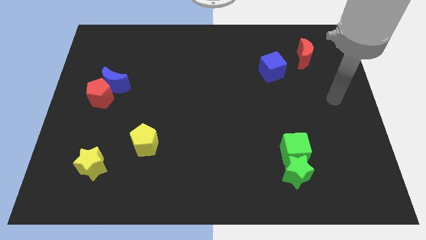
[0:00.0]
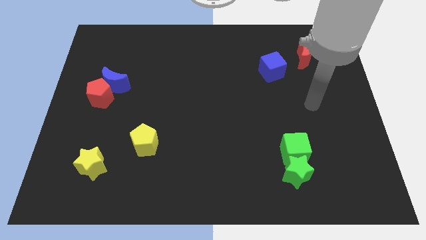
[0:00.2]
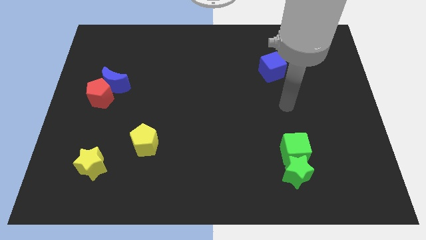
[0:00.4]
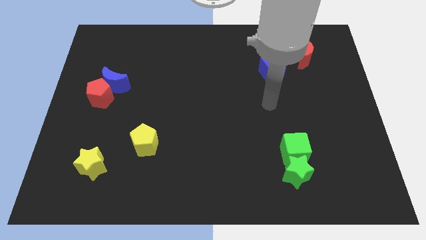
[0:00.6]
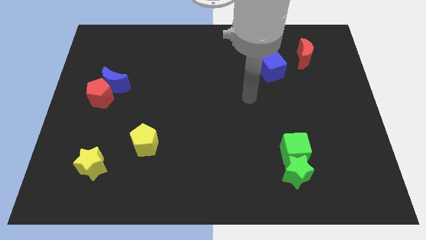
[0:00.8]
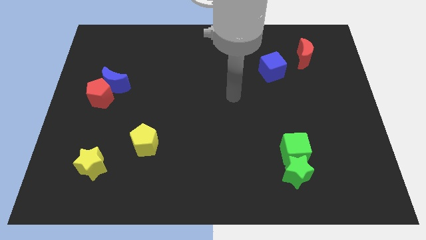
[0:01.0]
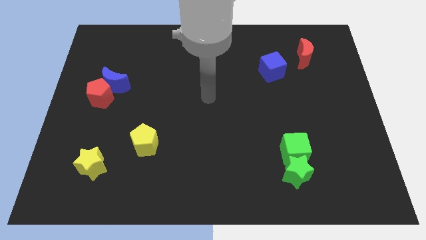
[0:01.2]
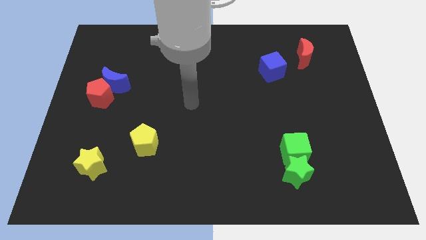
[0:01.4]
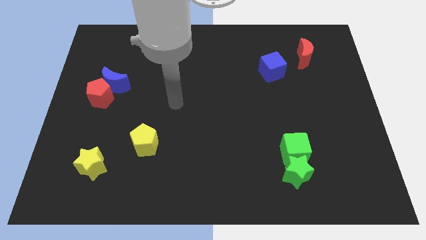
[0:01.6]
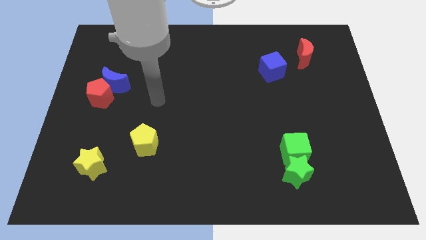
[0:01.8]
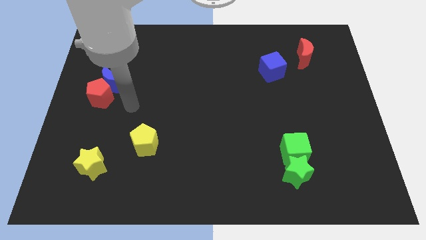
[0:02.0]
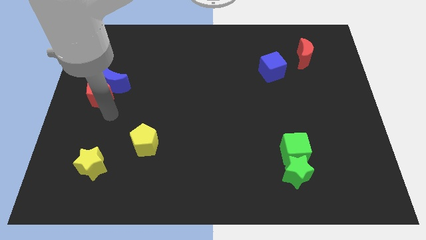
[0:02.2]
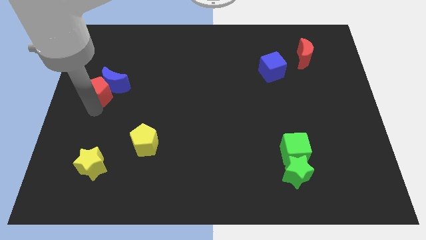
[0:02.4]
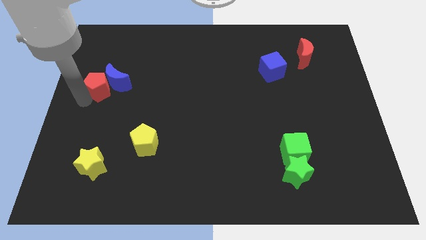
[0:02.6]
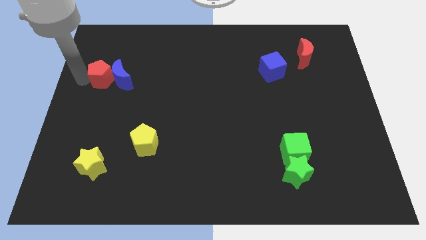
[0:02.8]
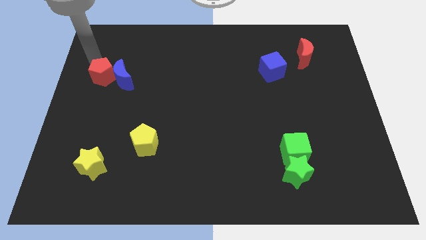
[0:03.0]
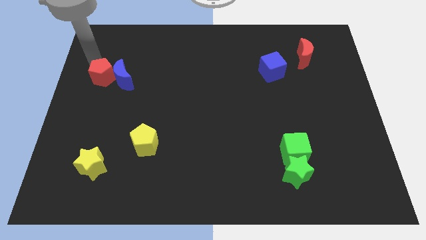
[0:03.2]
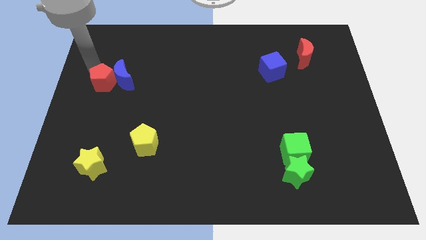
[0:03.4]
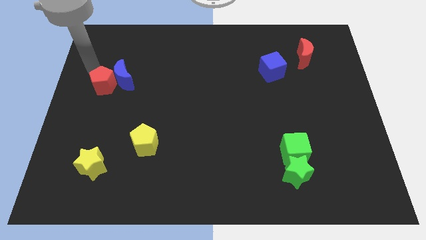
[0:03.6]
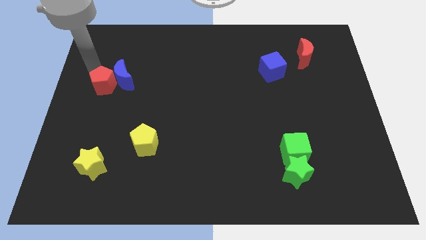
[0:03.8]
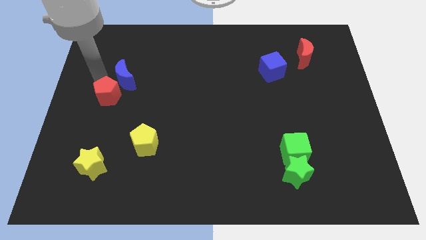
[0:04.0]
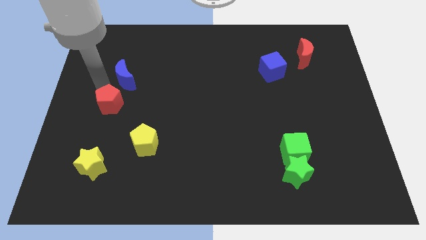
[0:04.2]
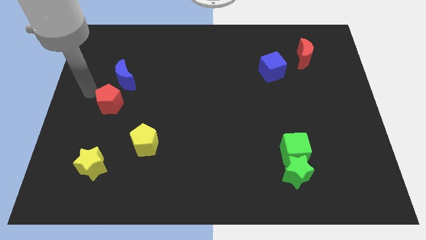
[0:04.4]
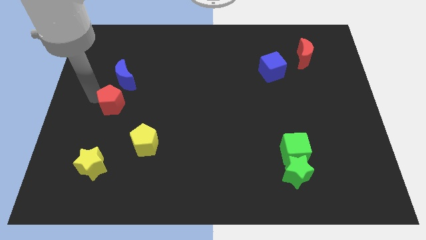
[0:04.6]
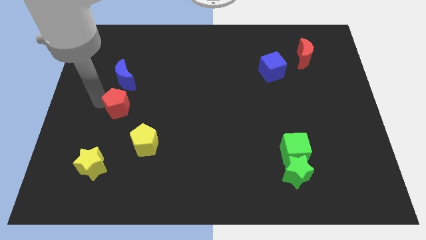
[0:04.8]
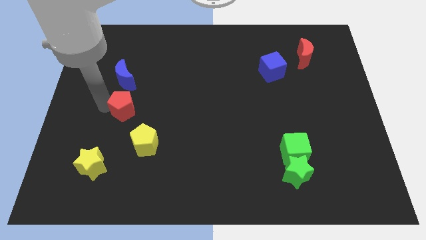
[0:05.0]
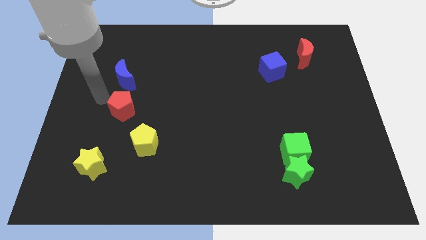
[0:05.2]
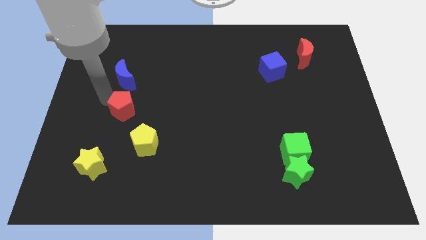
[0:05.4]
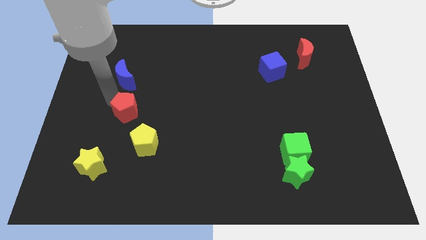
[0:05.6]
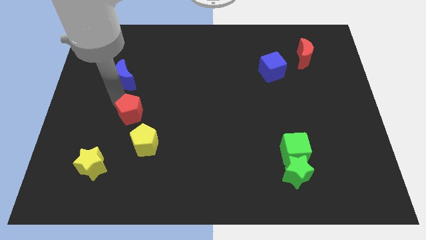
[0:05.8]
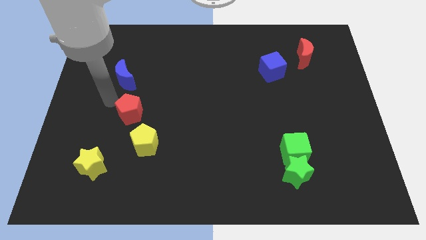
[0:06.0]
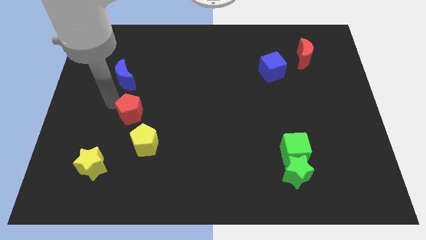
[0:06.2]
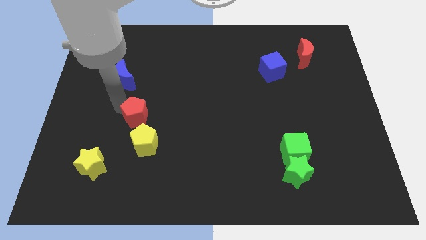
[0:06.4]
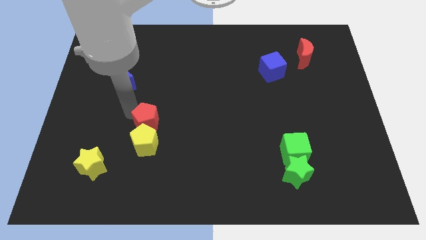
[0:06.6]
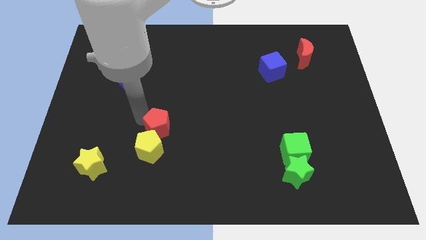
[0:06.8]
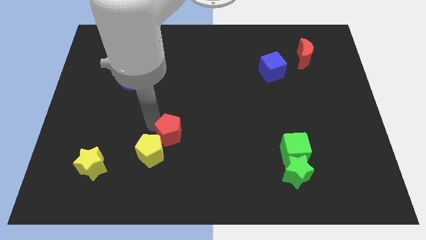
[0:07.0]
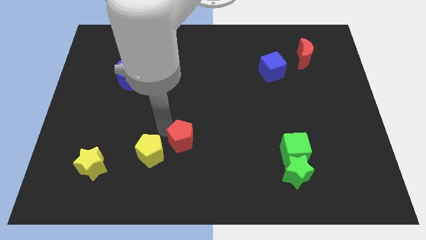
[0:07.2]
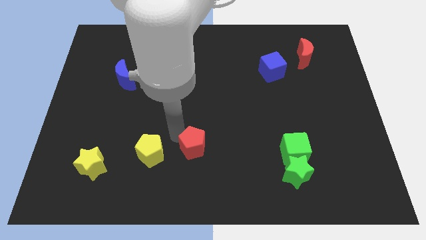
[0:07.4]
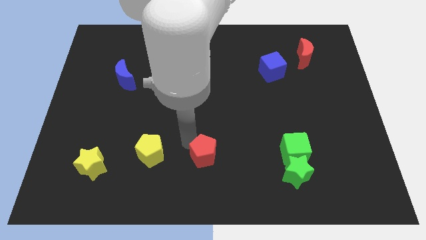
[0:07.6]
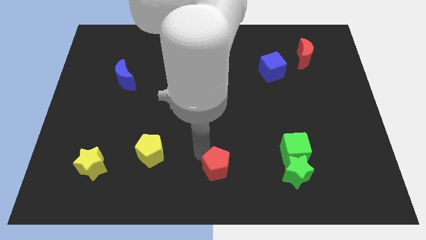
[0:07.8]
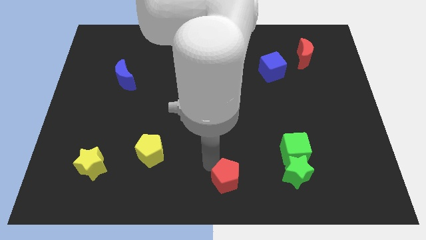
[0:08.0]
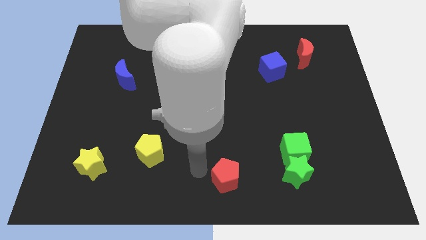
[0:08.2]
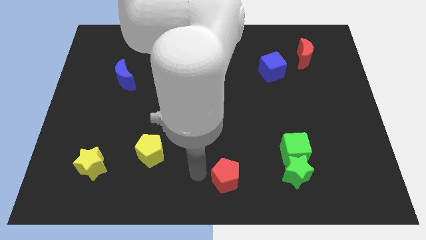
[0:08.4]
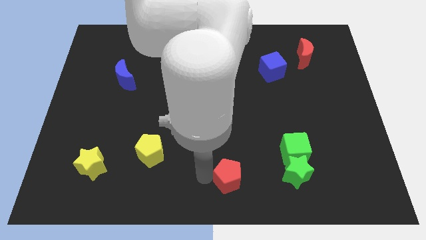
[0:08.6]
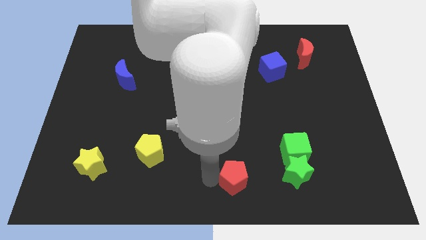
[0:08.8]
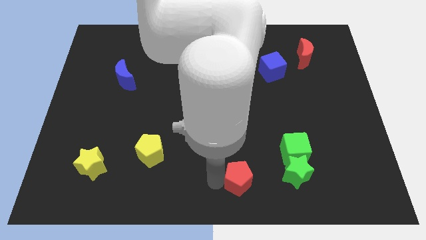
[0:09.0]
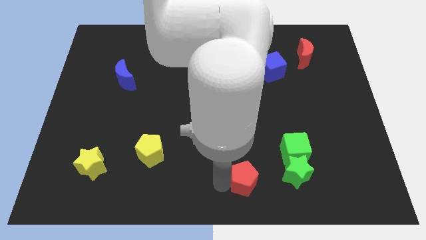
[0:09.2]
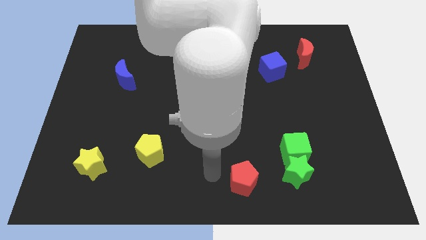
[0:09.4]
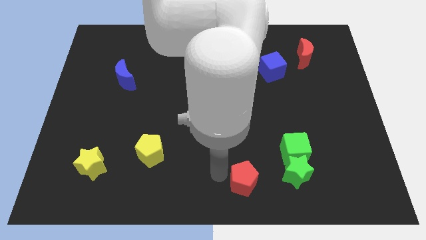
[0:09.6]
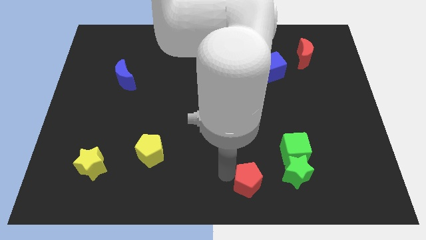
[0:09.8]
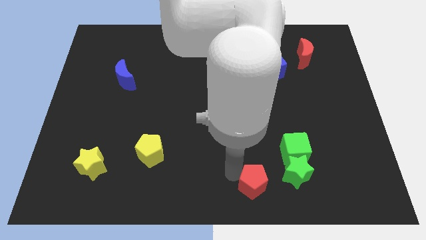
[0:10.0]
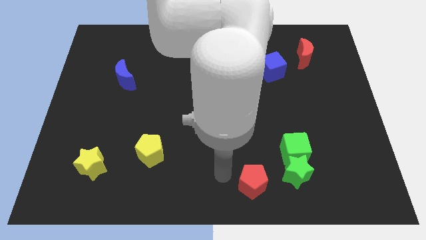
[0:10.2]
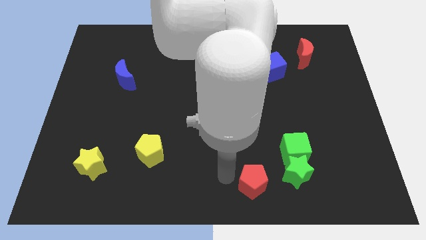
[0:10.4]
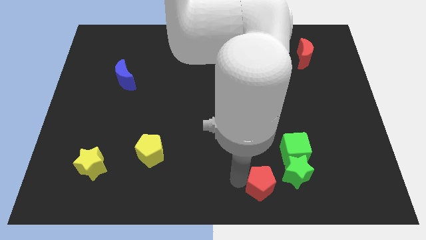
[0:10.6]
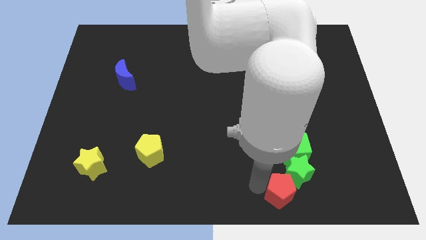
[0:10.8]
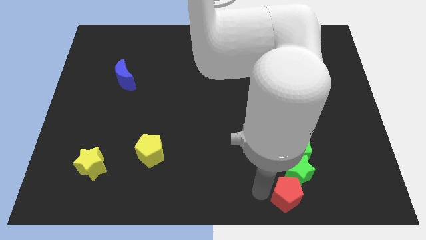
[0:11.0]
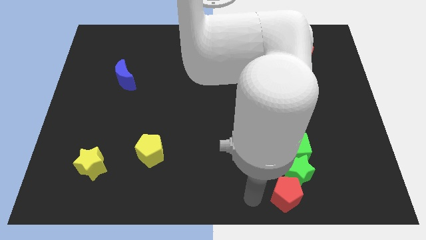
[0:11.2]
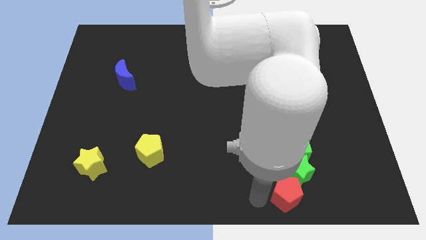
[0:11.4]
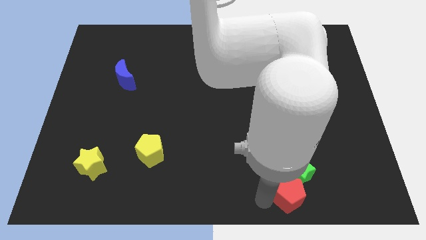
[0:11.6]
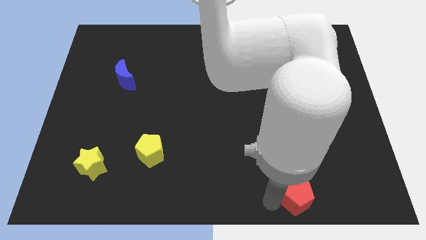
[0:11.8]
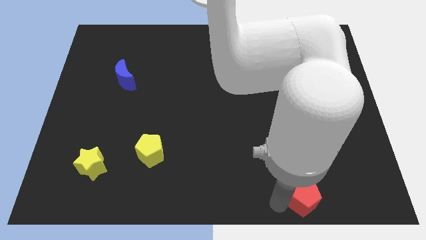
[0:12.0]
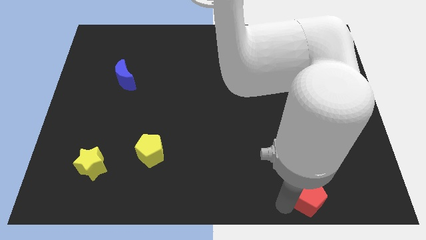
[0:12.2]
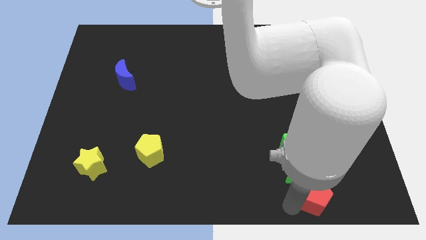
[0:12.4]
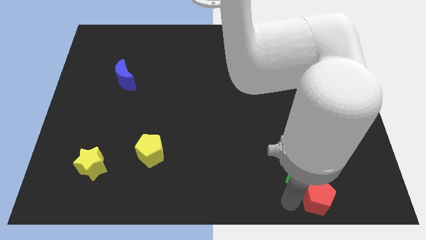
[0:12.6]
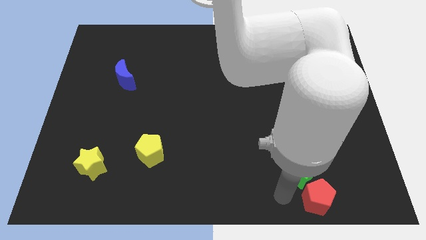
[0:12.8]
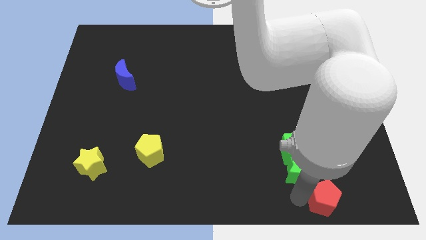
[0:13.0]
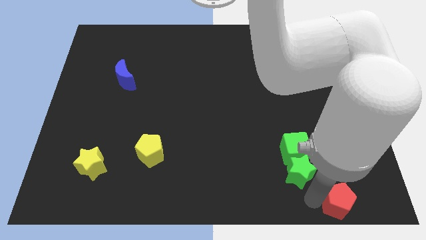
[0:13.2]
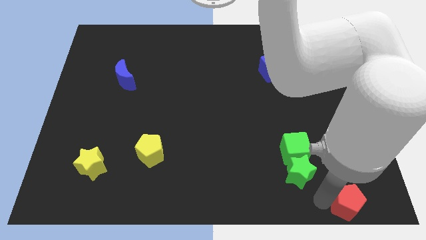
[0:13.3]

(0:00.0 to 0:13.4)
push the red pentagon to the bottom right
